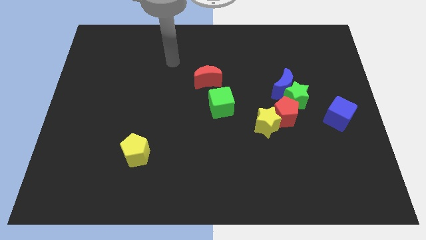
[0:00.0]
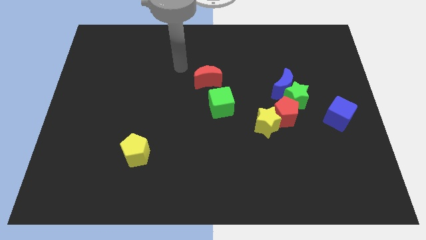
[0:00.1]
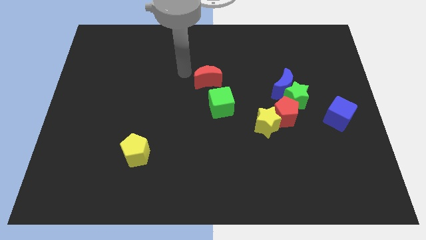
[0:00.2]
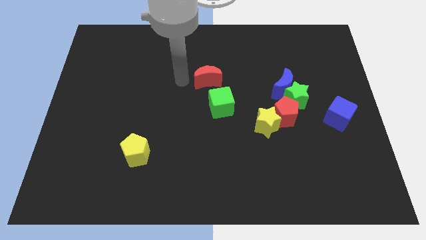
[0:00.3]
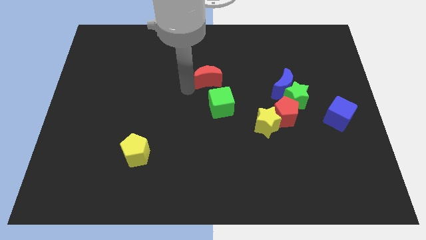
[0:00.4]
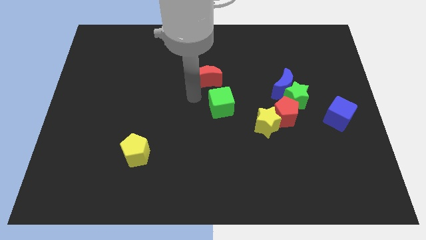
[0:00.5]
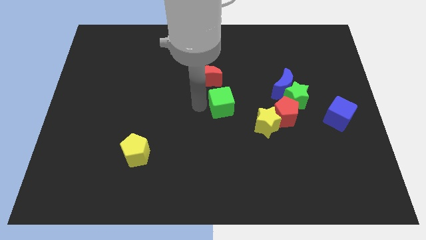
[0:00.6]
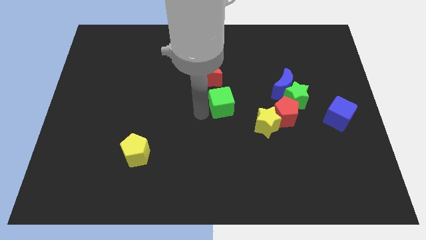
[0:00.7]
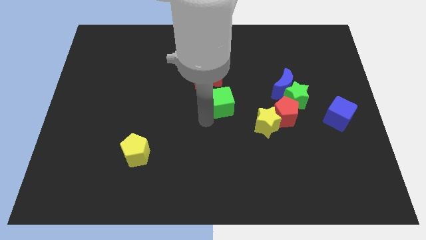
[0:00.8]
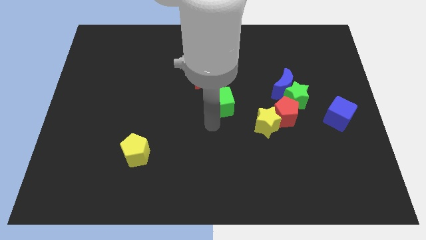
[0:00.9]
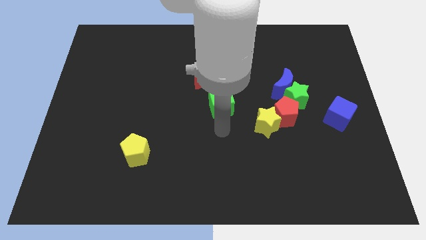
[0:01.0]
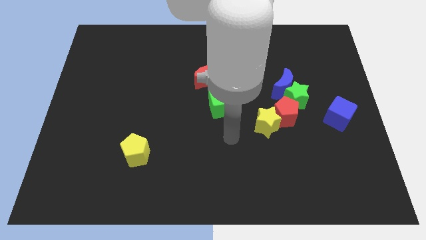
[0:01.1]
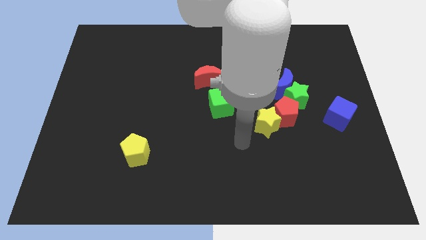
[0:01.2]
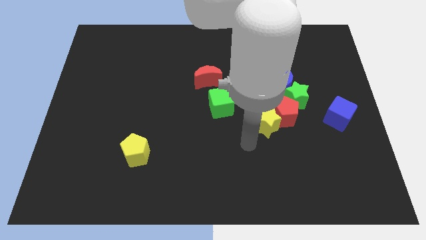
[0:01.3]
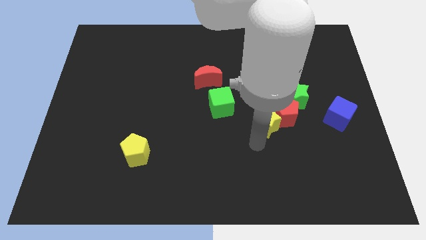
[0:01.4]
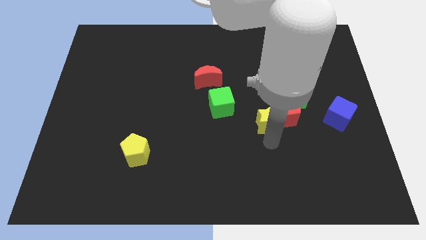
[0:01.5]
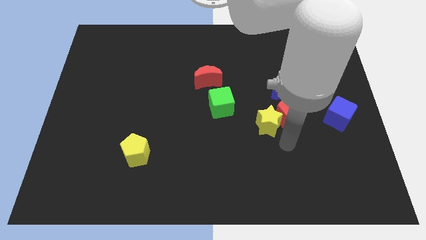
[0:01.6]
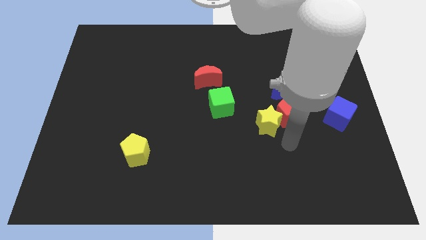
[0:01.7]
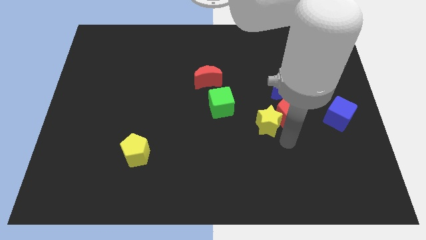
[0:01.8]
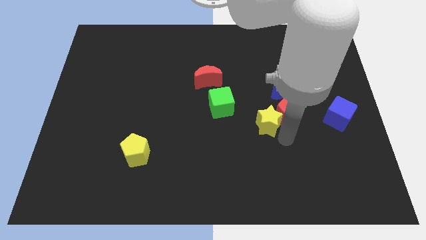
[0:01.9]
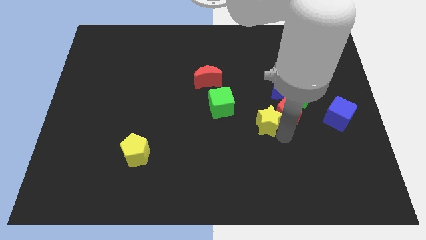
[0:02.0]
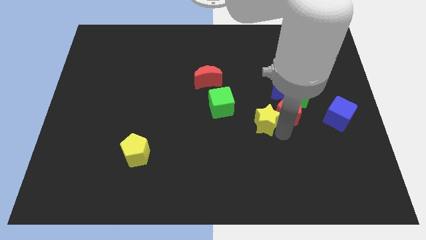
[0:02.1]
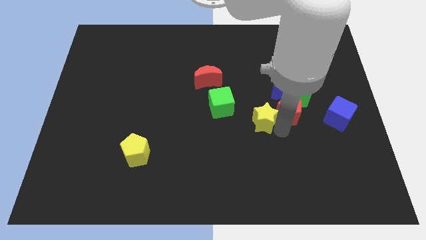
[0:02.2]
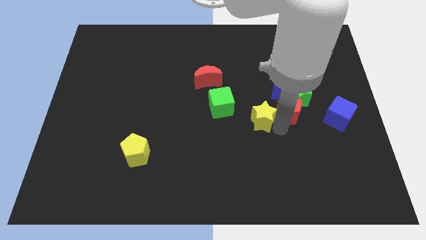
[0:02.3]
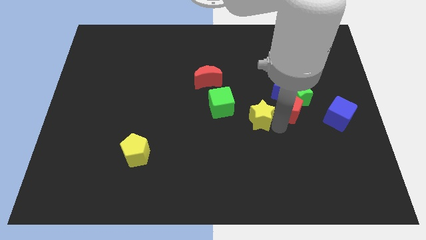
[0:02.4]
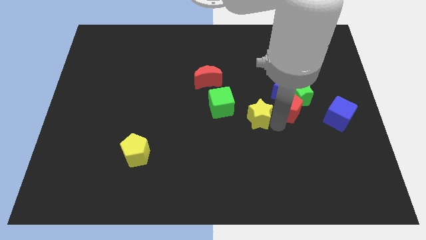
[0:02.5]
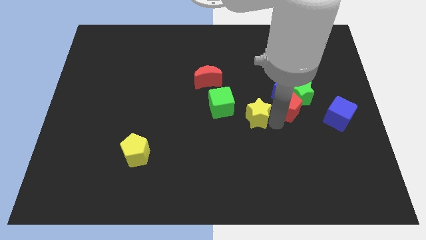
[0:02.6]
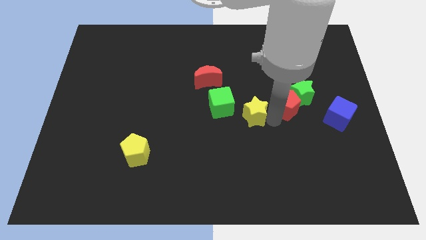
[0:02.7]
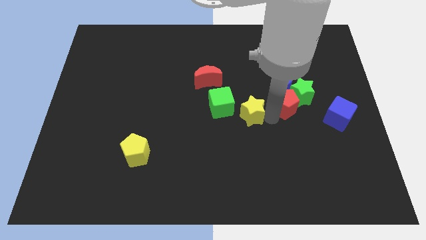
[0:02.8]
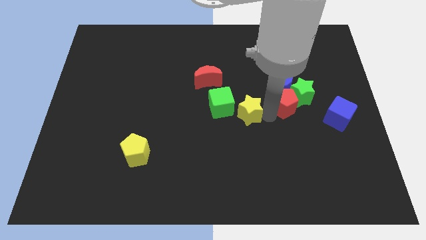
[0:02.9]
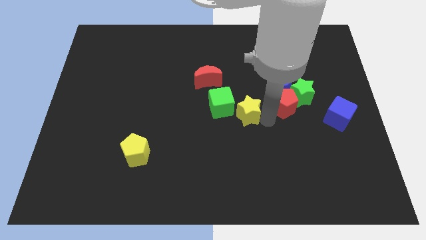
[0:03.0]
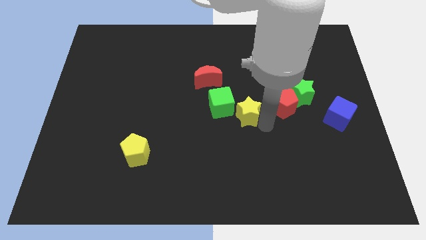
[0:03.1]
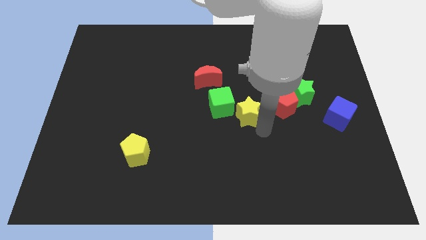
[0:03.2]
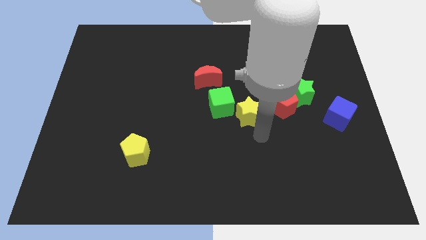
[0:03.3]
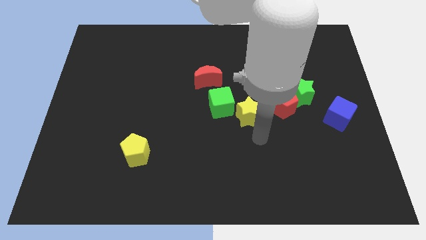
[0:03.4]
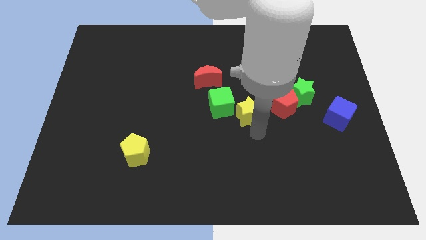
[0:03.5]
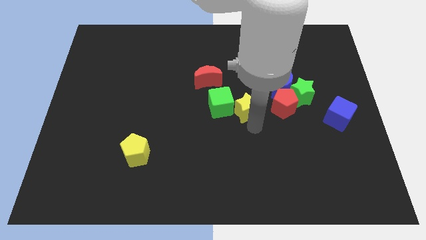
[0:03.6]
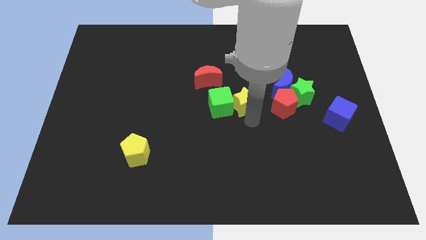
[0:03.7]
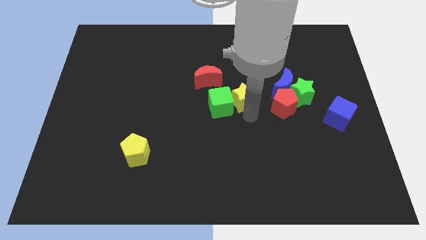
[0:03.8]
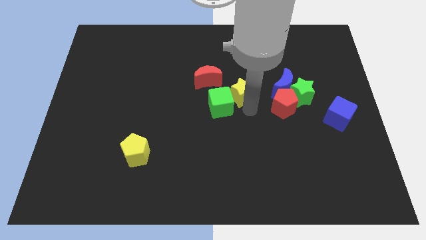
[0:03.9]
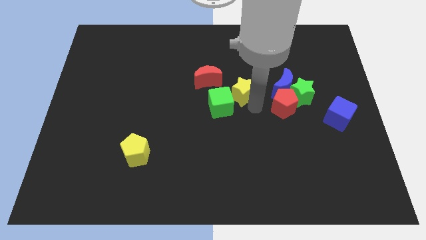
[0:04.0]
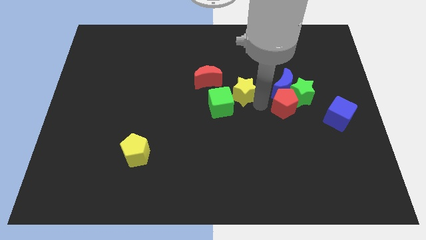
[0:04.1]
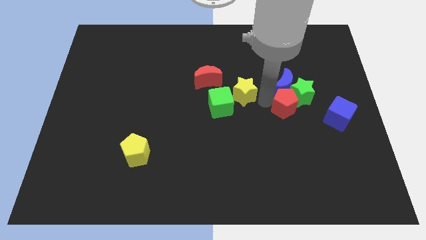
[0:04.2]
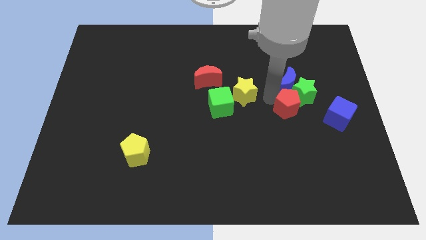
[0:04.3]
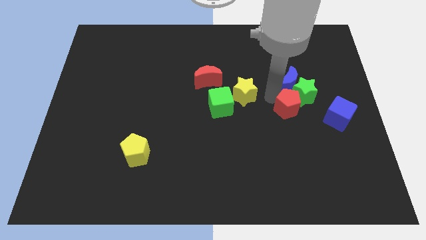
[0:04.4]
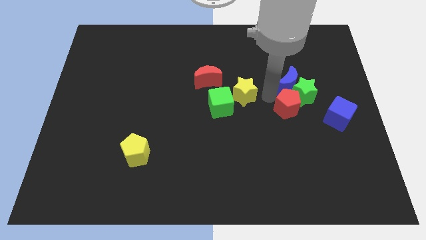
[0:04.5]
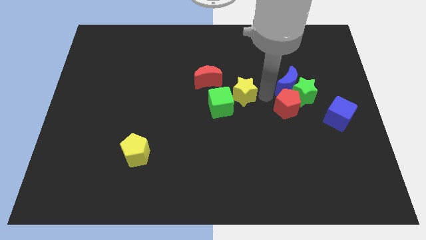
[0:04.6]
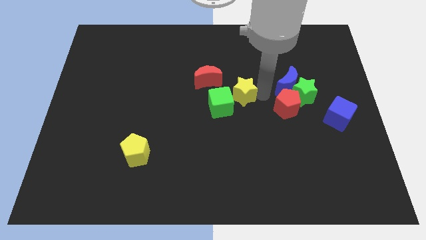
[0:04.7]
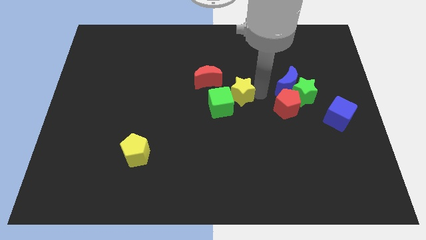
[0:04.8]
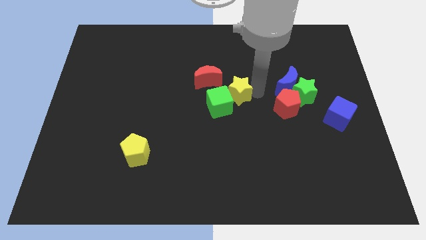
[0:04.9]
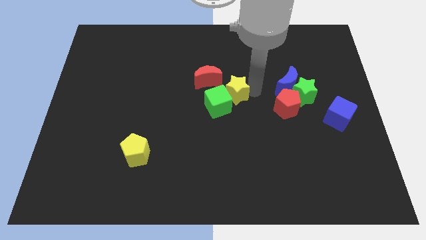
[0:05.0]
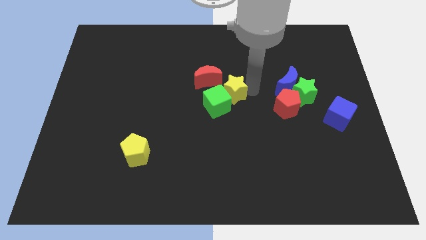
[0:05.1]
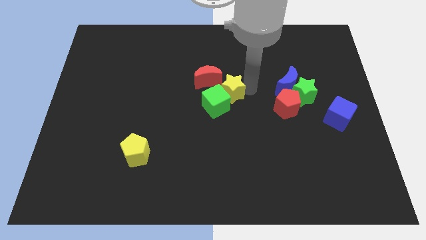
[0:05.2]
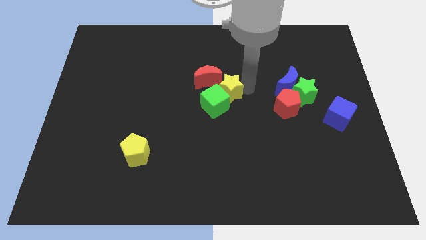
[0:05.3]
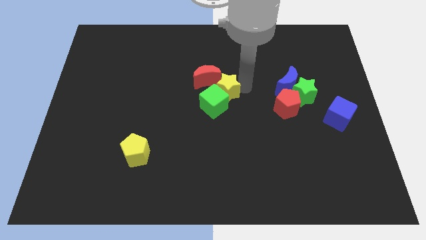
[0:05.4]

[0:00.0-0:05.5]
slide the yellow star next to the red moon

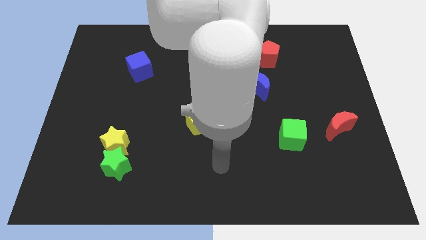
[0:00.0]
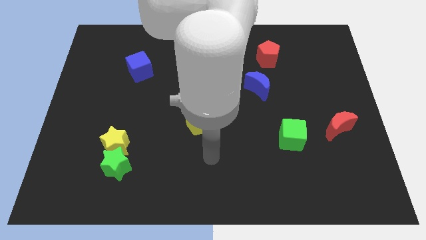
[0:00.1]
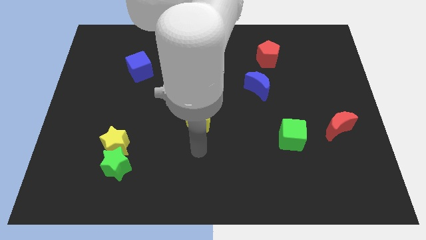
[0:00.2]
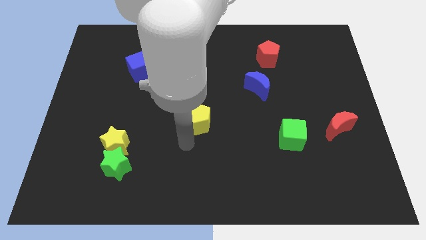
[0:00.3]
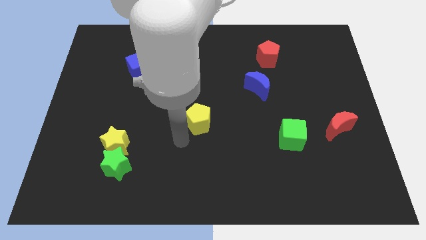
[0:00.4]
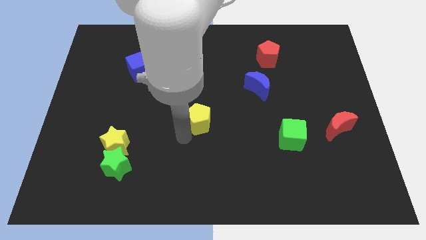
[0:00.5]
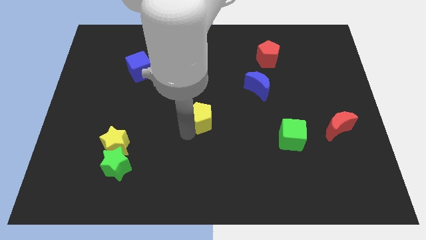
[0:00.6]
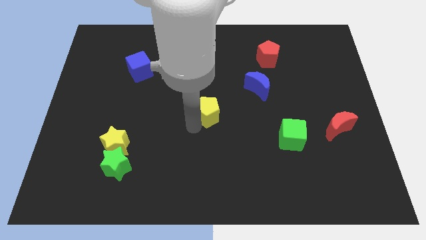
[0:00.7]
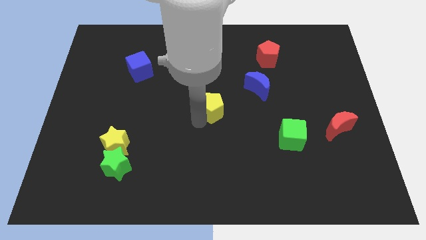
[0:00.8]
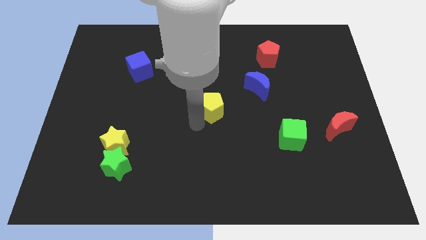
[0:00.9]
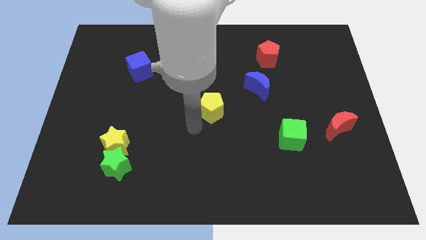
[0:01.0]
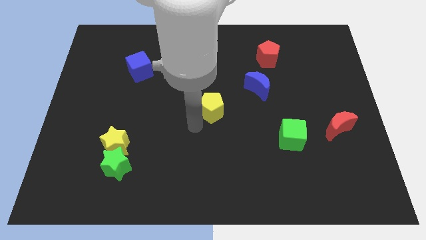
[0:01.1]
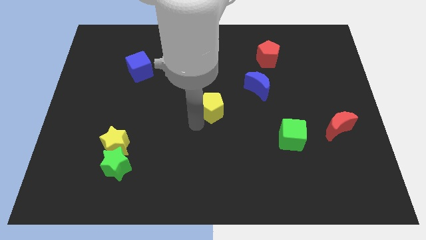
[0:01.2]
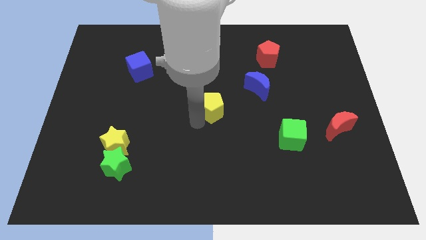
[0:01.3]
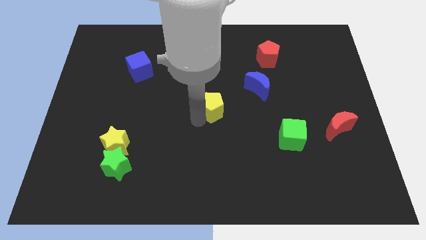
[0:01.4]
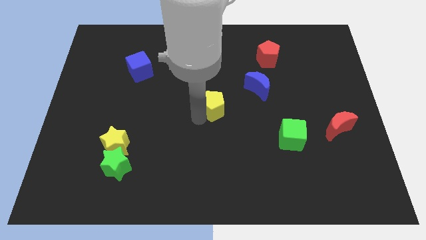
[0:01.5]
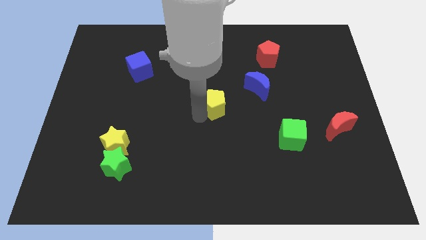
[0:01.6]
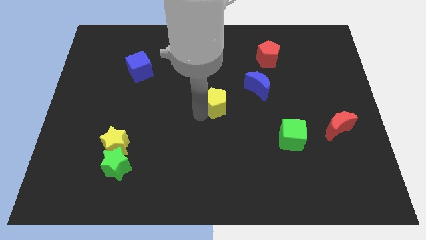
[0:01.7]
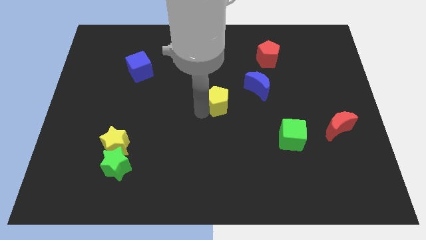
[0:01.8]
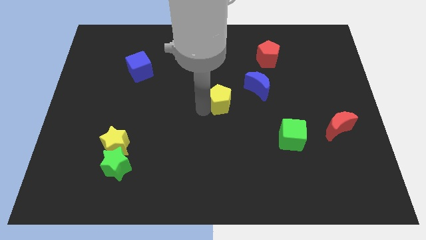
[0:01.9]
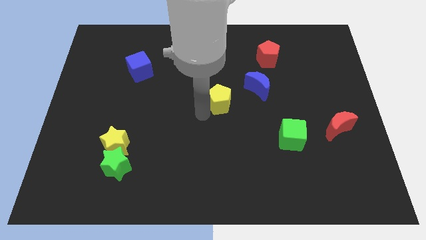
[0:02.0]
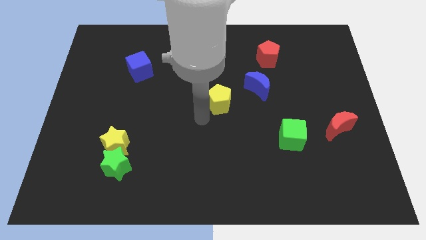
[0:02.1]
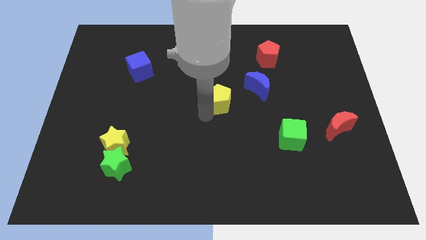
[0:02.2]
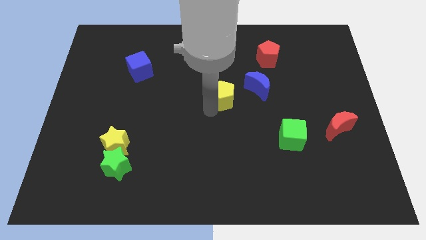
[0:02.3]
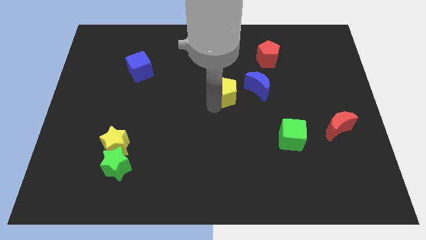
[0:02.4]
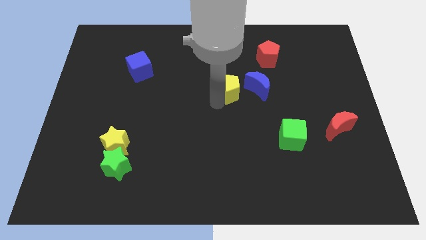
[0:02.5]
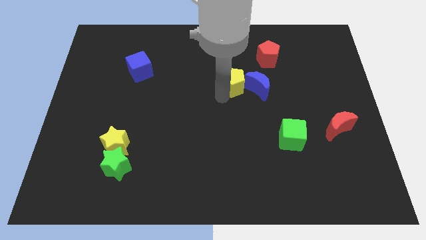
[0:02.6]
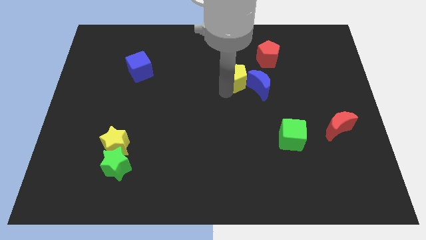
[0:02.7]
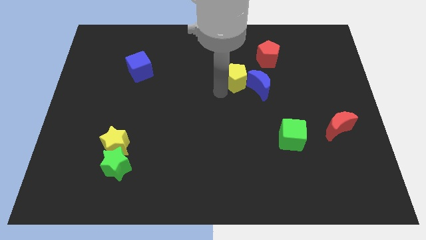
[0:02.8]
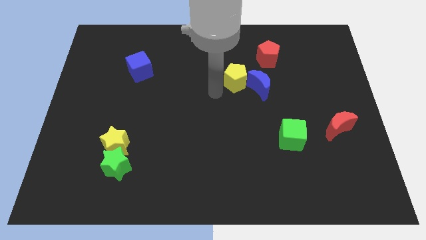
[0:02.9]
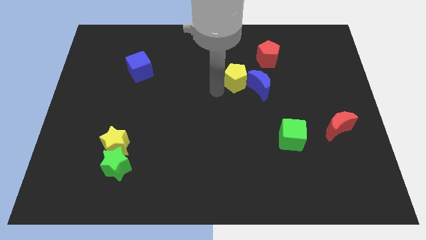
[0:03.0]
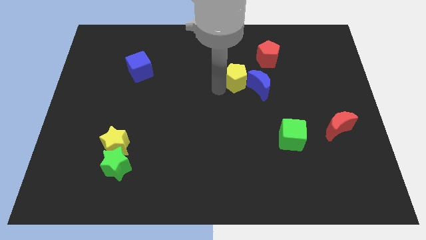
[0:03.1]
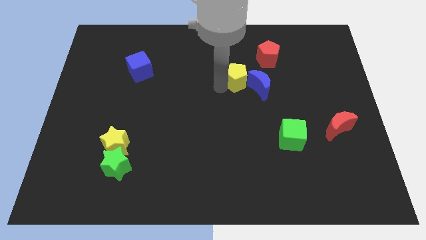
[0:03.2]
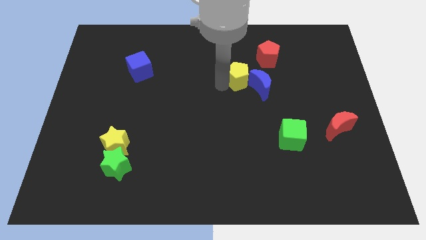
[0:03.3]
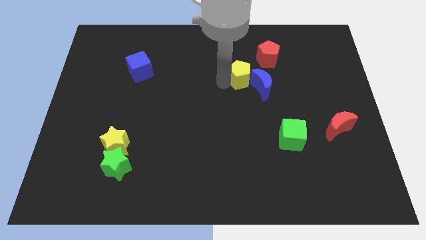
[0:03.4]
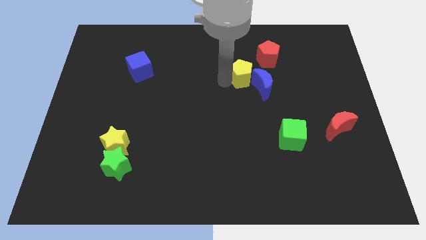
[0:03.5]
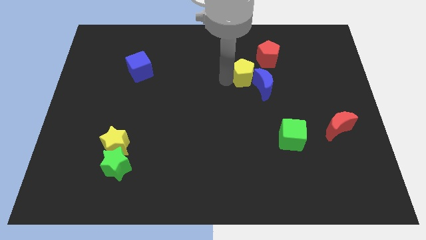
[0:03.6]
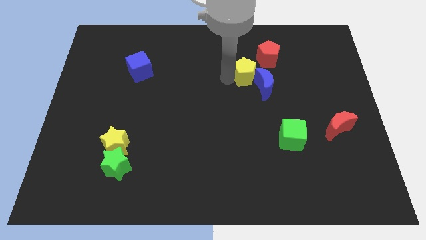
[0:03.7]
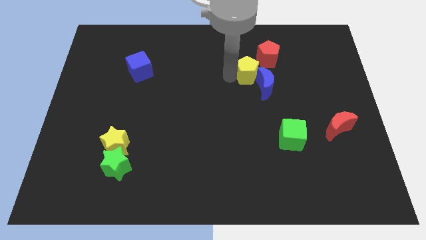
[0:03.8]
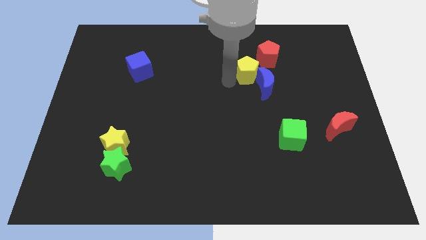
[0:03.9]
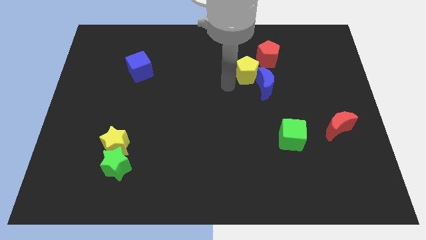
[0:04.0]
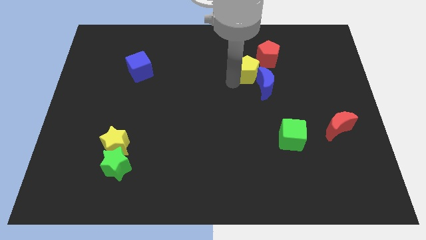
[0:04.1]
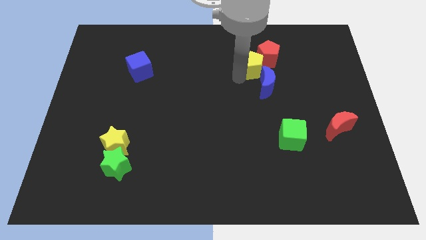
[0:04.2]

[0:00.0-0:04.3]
put the yellow pentagon close to the red pentagon
